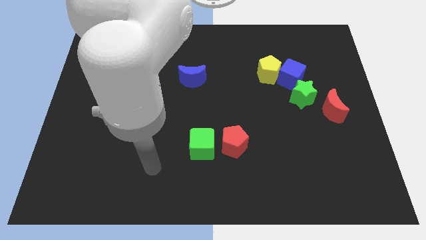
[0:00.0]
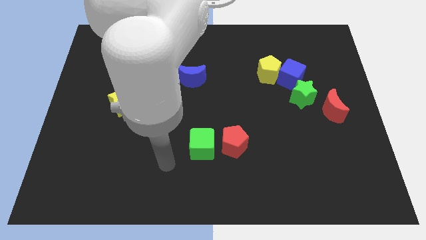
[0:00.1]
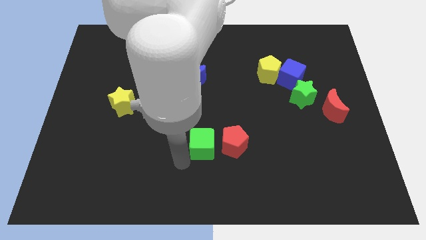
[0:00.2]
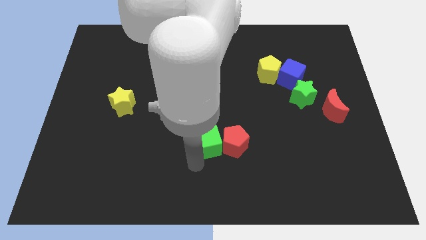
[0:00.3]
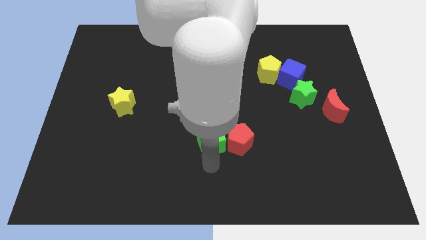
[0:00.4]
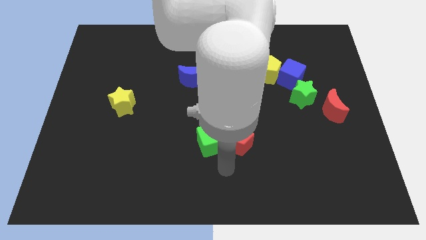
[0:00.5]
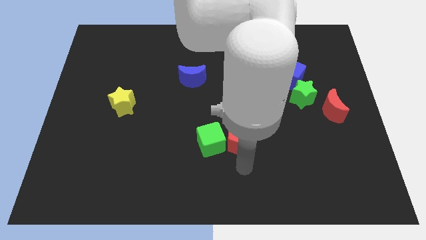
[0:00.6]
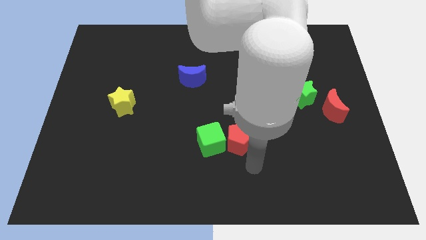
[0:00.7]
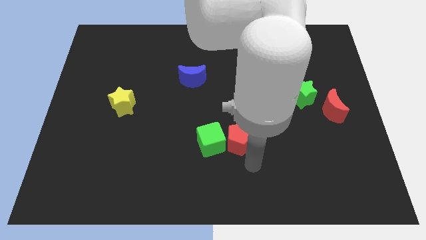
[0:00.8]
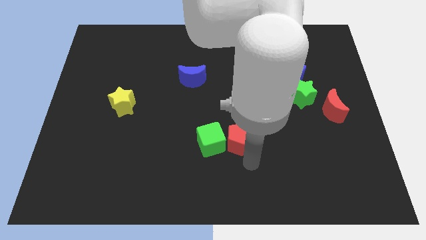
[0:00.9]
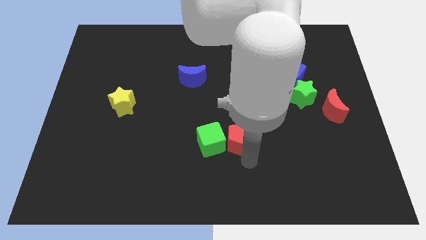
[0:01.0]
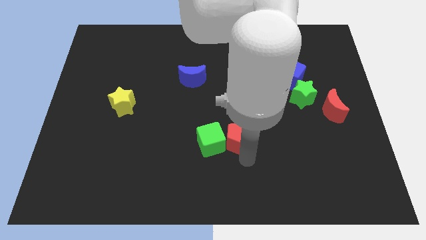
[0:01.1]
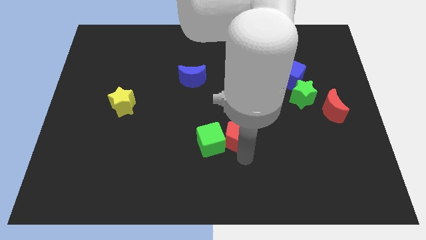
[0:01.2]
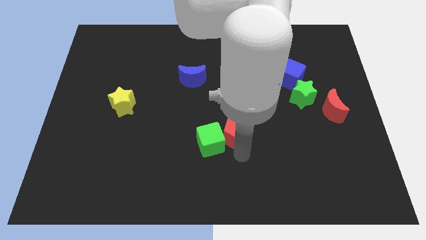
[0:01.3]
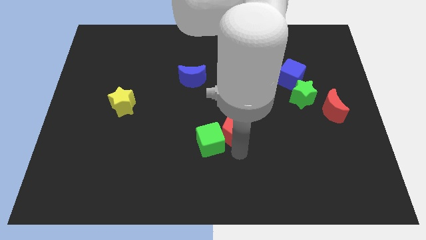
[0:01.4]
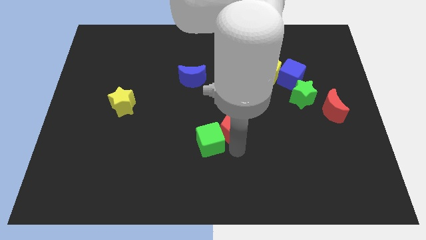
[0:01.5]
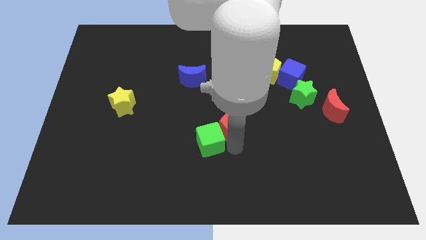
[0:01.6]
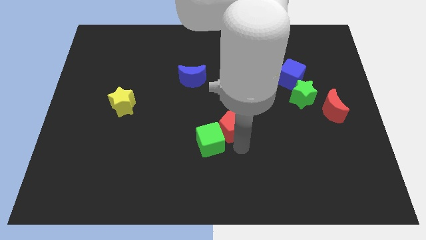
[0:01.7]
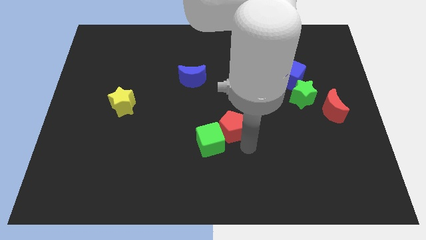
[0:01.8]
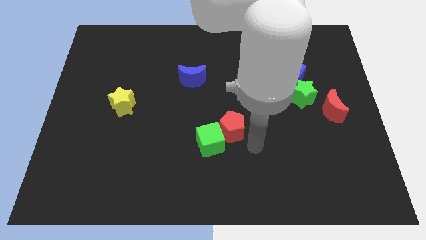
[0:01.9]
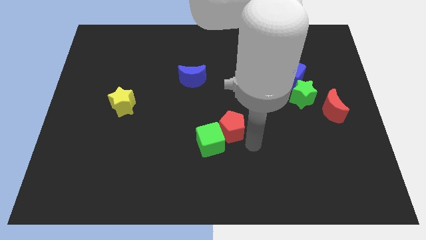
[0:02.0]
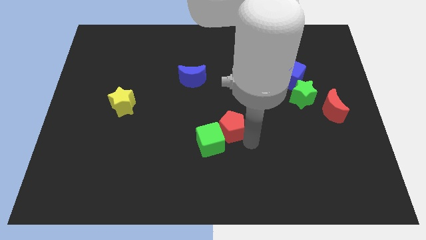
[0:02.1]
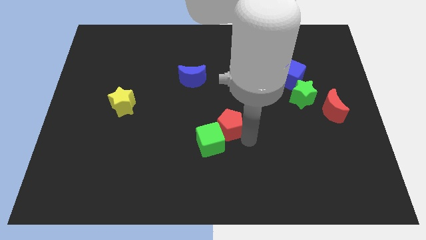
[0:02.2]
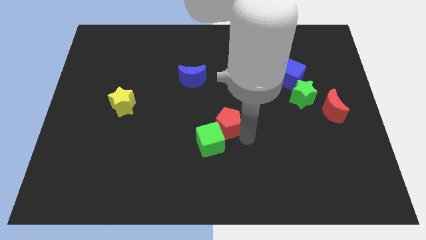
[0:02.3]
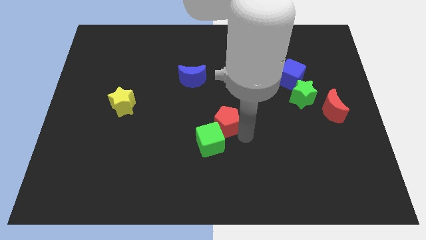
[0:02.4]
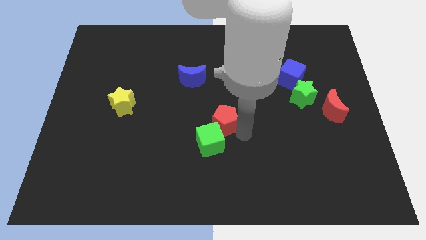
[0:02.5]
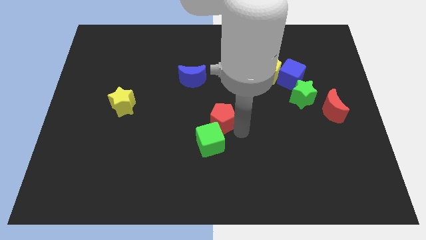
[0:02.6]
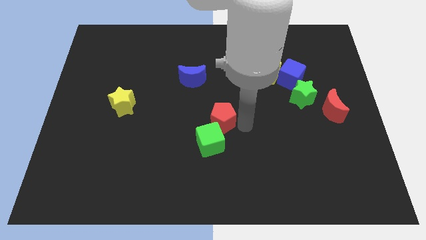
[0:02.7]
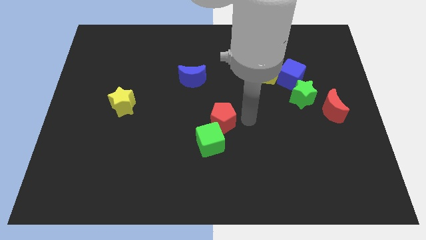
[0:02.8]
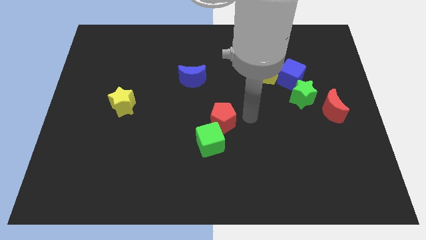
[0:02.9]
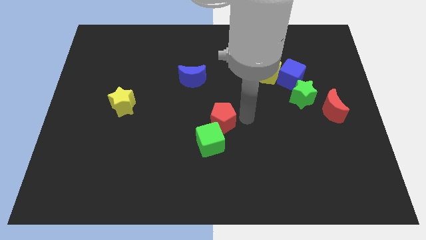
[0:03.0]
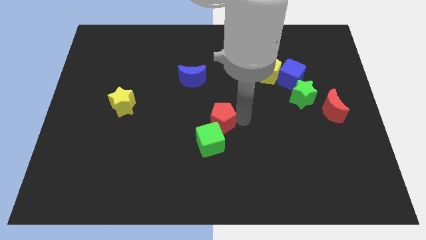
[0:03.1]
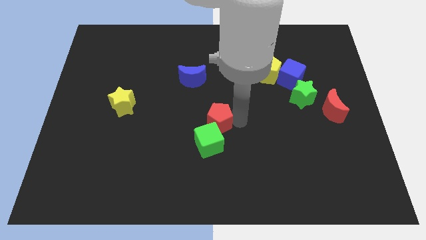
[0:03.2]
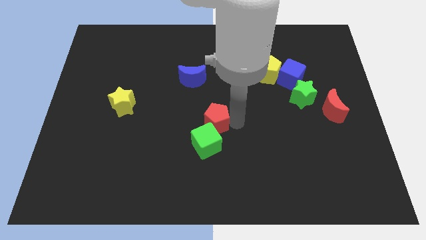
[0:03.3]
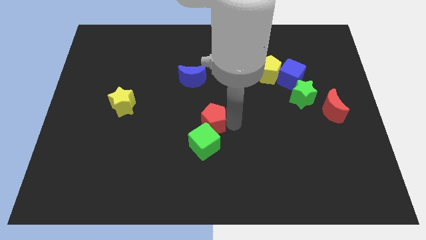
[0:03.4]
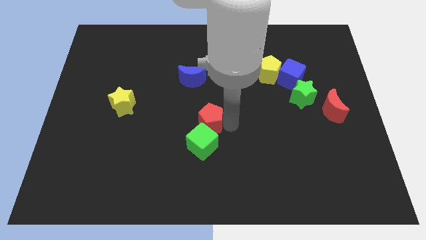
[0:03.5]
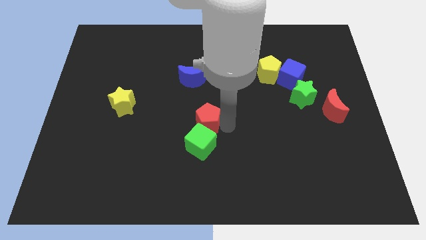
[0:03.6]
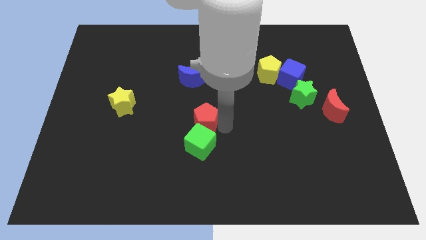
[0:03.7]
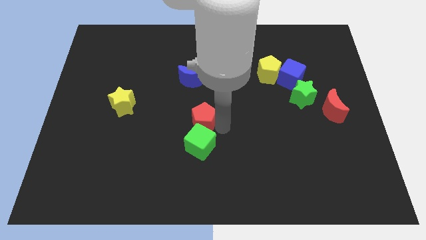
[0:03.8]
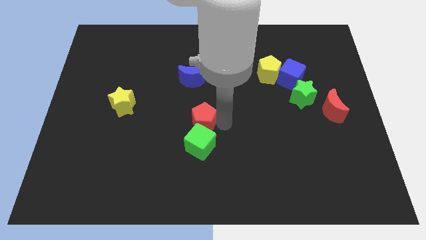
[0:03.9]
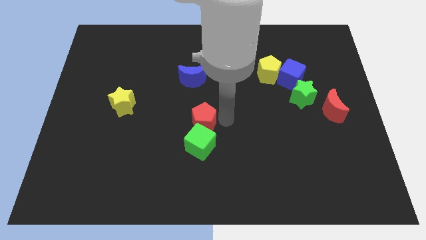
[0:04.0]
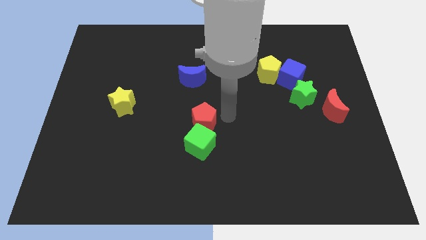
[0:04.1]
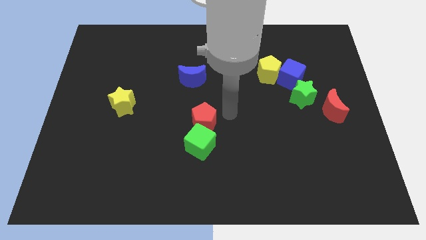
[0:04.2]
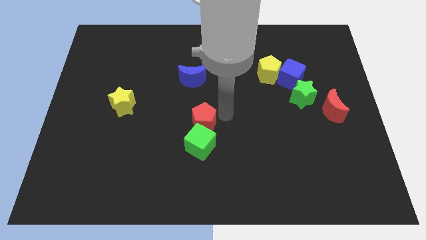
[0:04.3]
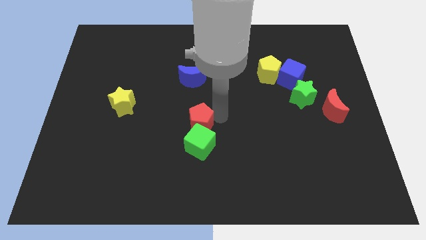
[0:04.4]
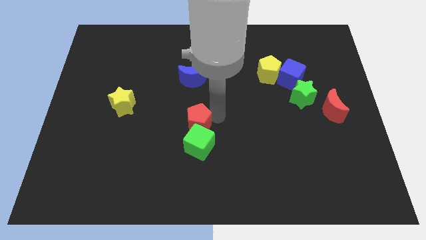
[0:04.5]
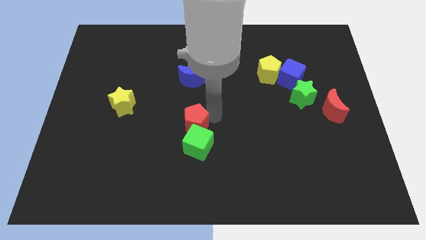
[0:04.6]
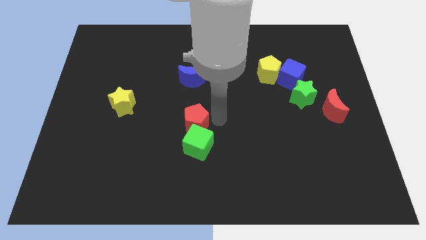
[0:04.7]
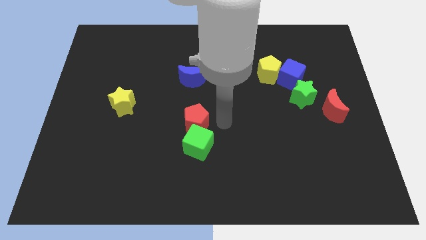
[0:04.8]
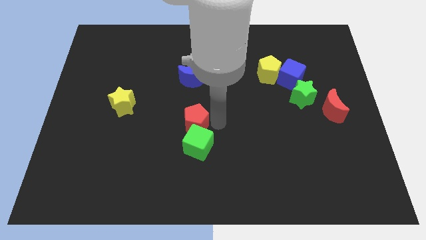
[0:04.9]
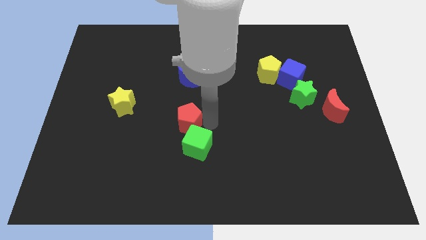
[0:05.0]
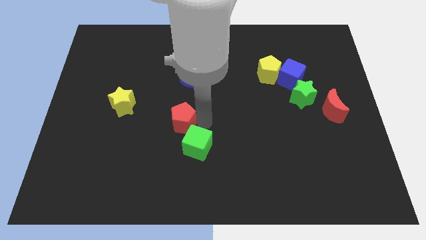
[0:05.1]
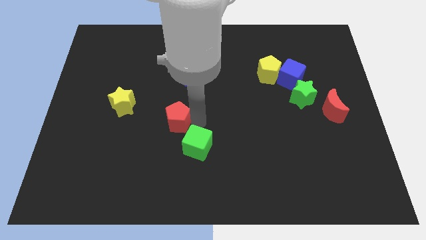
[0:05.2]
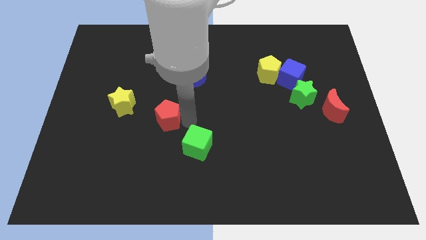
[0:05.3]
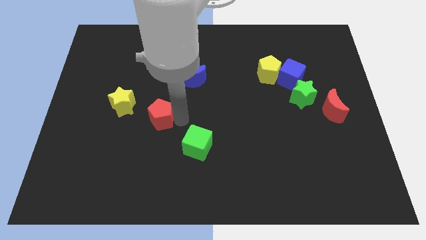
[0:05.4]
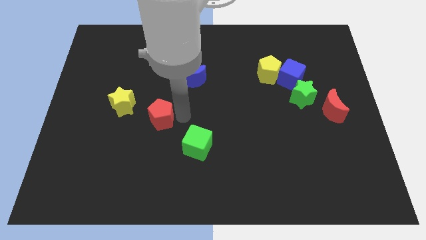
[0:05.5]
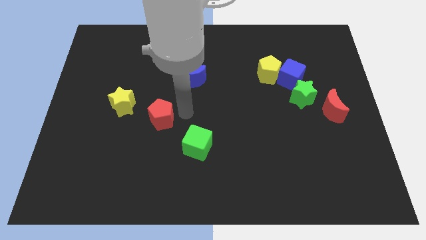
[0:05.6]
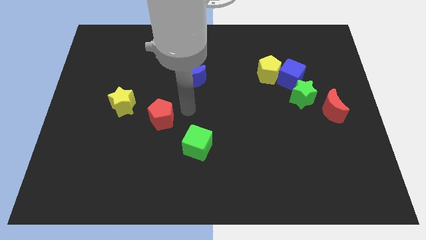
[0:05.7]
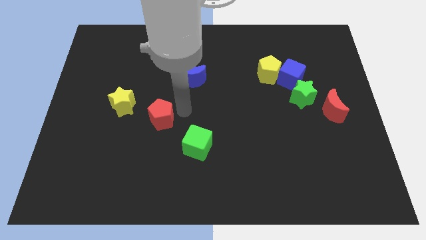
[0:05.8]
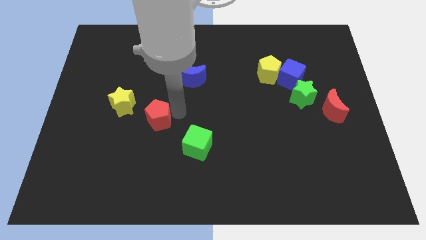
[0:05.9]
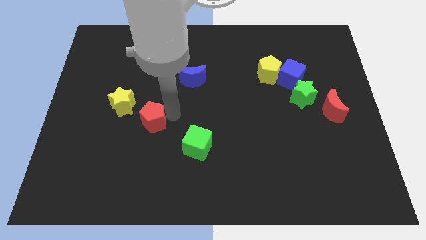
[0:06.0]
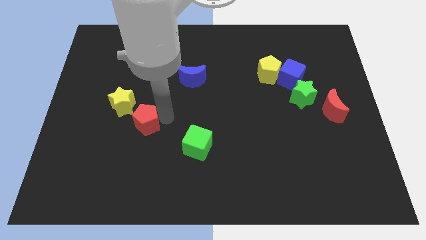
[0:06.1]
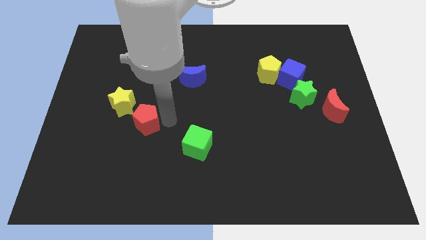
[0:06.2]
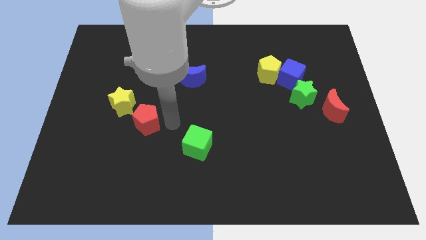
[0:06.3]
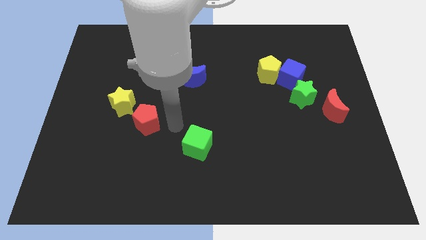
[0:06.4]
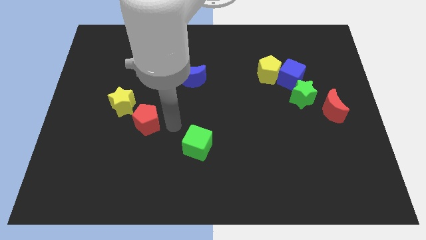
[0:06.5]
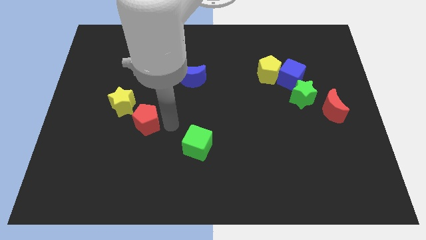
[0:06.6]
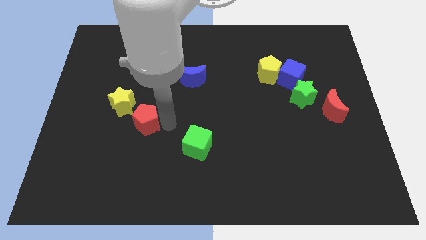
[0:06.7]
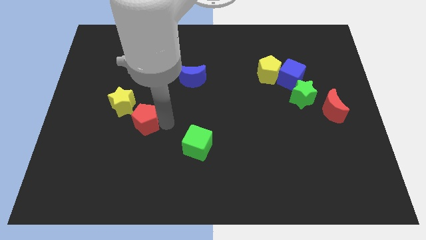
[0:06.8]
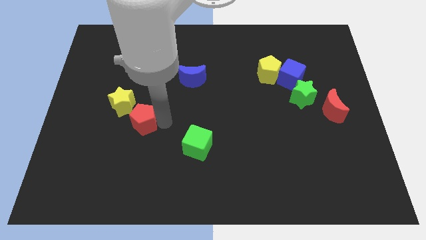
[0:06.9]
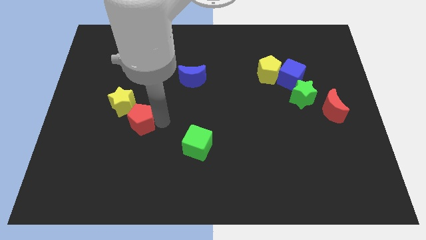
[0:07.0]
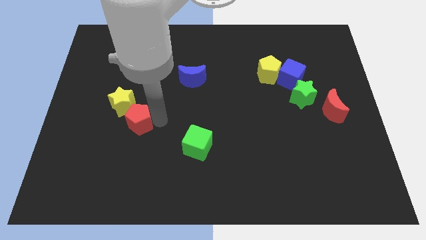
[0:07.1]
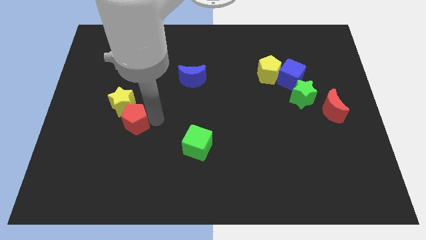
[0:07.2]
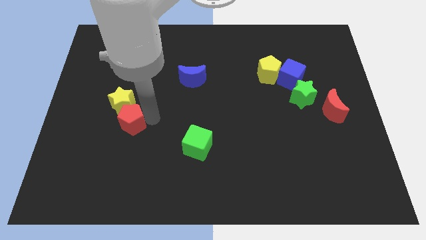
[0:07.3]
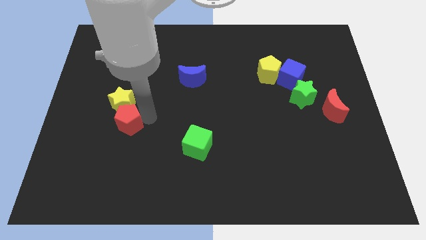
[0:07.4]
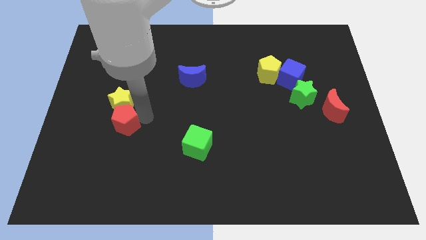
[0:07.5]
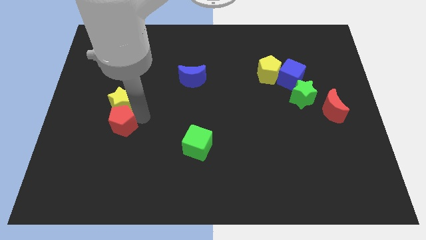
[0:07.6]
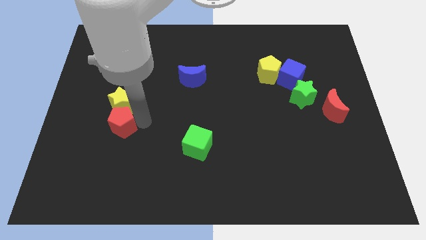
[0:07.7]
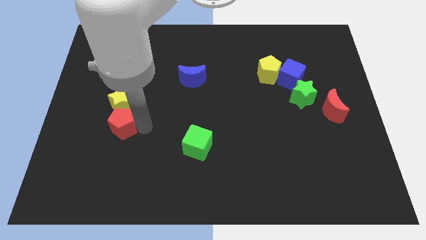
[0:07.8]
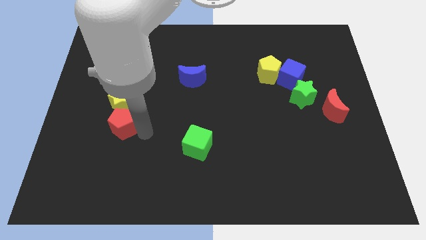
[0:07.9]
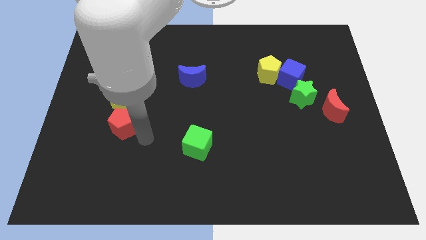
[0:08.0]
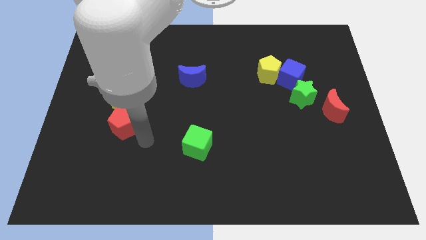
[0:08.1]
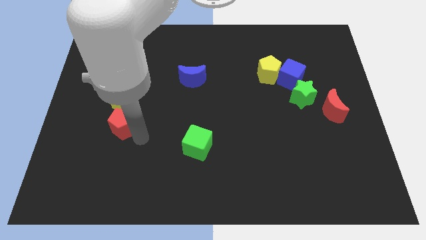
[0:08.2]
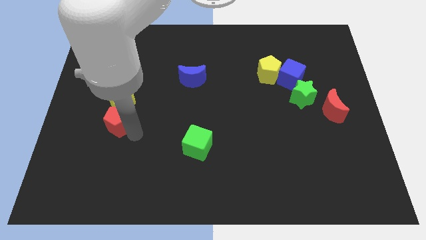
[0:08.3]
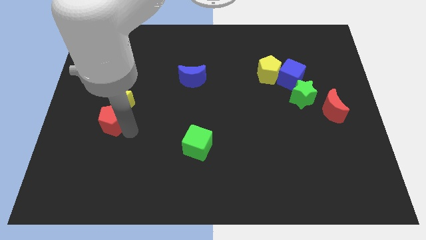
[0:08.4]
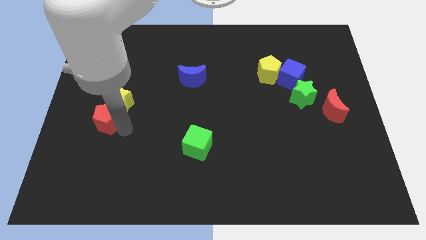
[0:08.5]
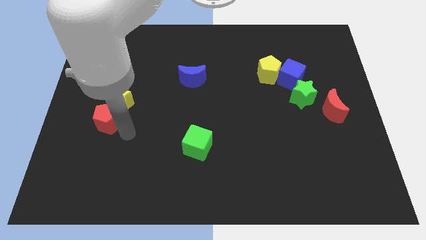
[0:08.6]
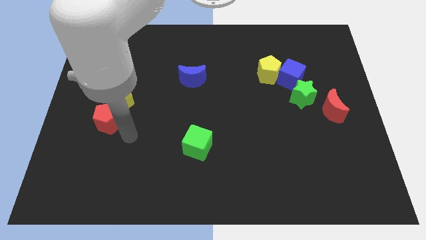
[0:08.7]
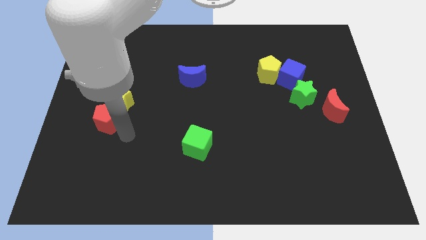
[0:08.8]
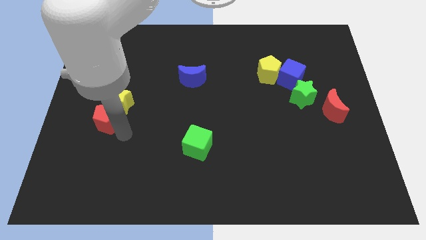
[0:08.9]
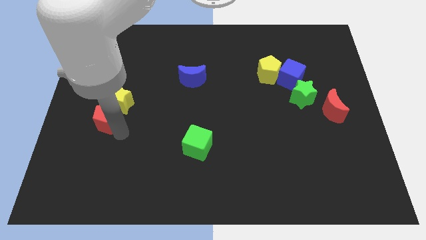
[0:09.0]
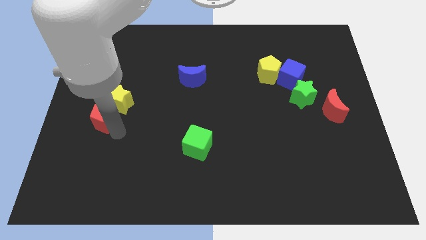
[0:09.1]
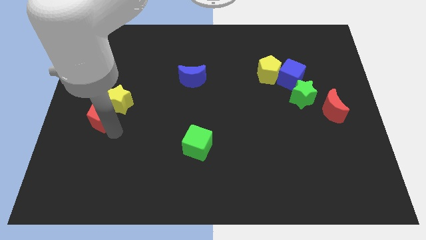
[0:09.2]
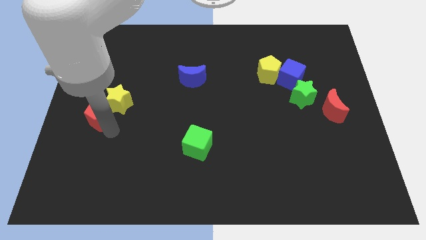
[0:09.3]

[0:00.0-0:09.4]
put the red pentagon to the left side
